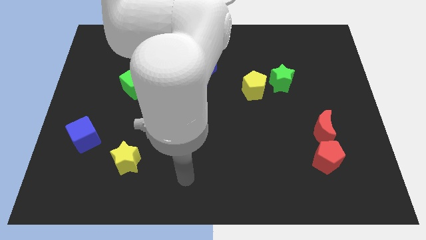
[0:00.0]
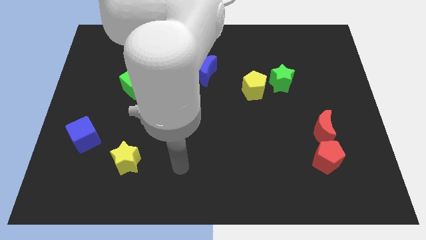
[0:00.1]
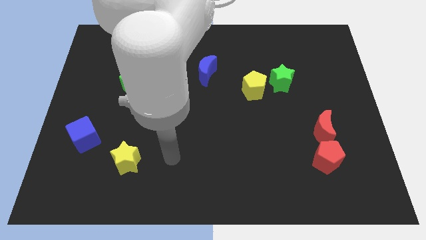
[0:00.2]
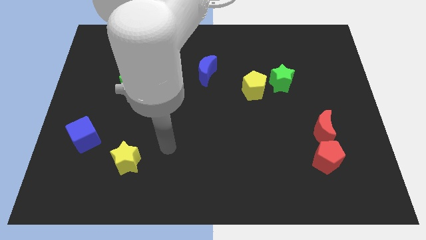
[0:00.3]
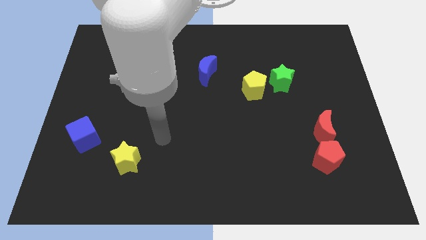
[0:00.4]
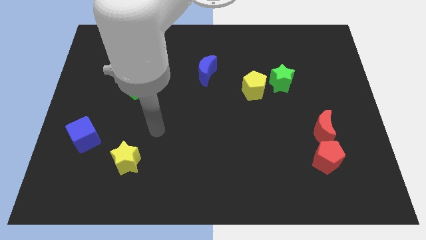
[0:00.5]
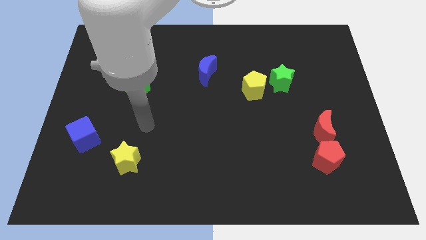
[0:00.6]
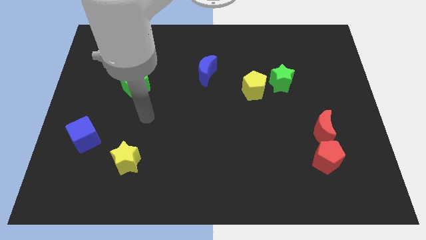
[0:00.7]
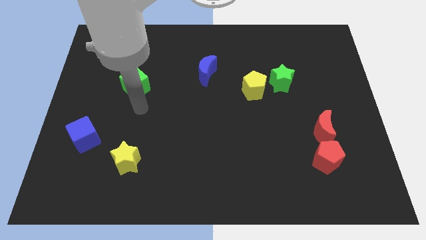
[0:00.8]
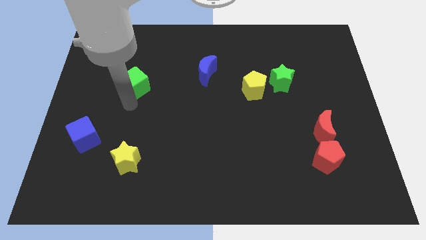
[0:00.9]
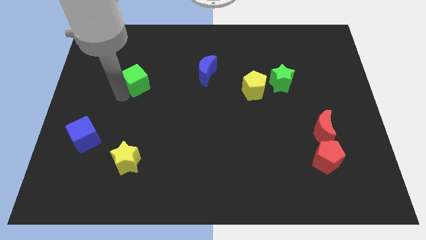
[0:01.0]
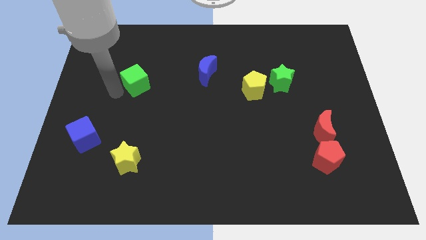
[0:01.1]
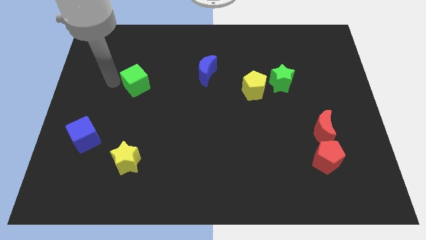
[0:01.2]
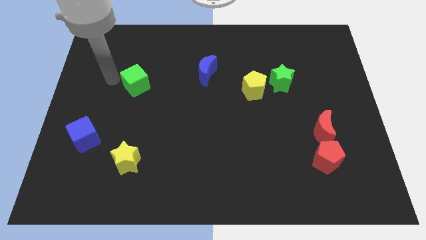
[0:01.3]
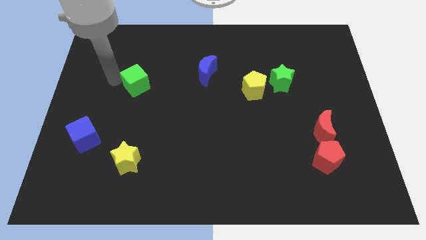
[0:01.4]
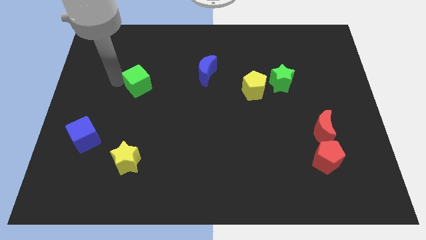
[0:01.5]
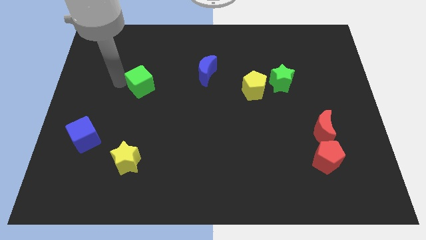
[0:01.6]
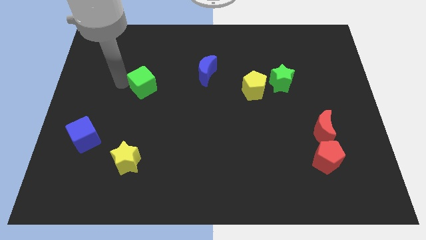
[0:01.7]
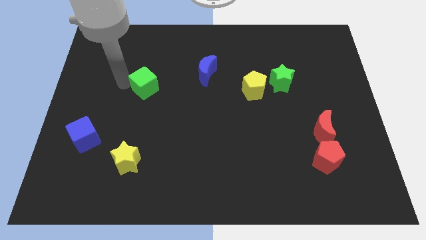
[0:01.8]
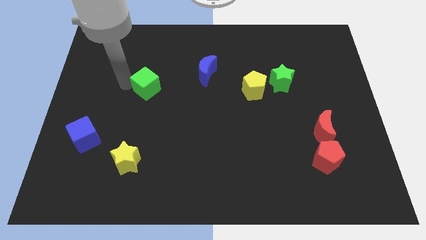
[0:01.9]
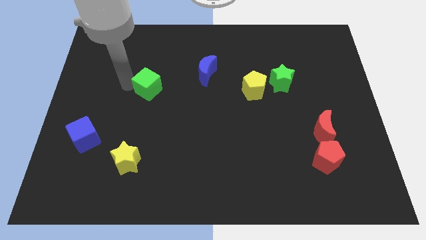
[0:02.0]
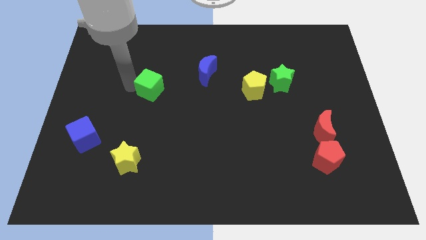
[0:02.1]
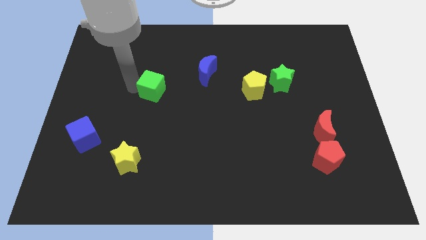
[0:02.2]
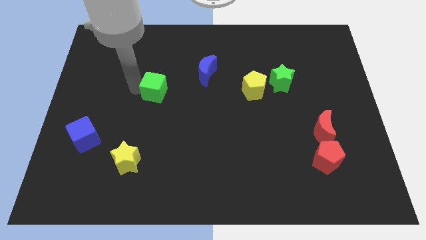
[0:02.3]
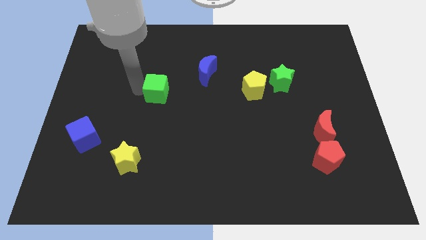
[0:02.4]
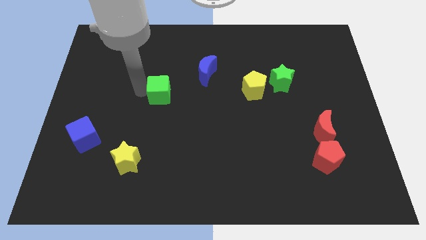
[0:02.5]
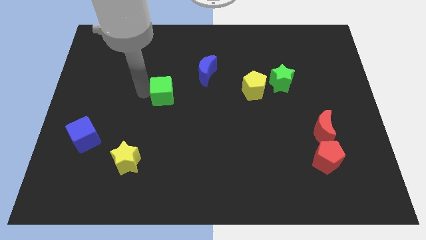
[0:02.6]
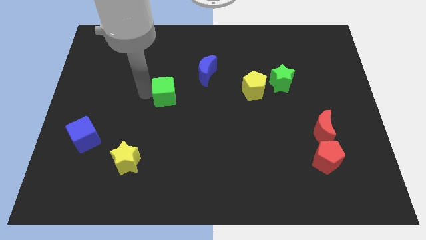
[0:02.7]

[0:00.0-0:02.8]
move the green cube to the right somewhat

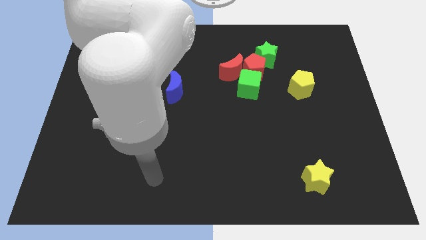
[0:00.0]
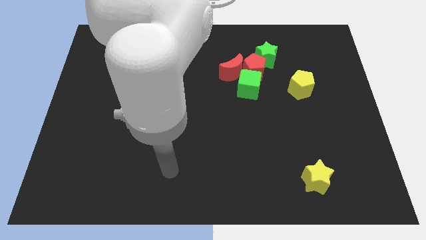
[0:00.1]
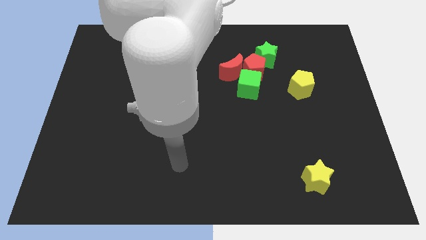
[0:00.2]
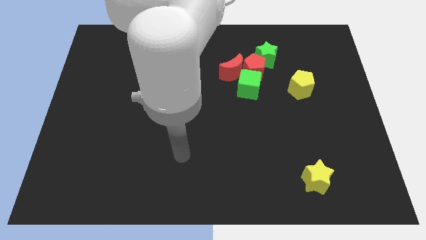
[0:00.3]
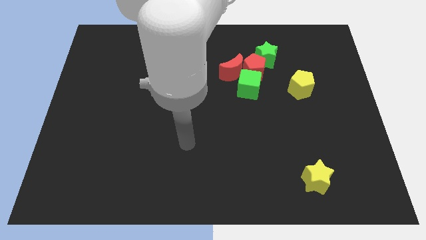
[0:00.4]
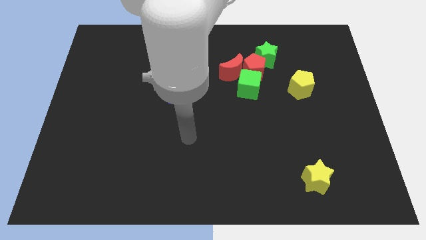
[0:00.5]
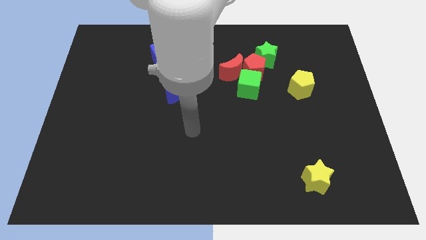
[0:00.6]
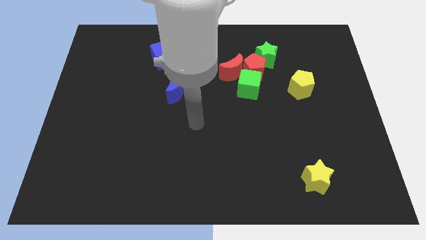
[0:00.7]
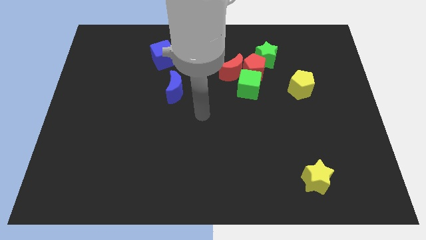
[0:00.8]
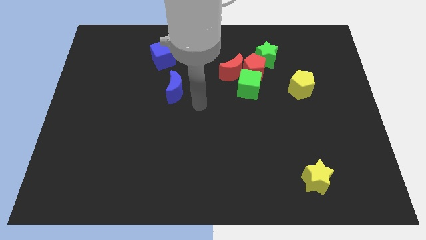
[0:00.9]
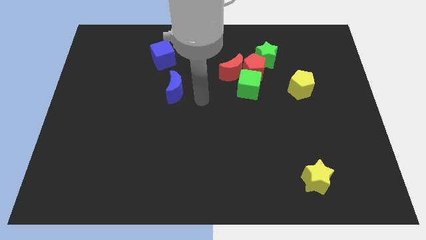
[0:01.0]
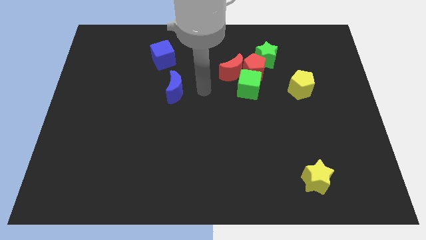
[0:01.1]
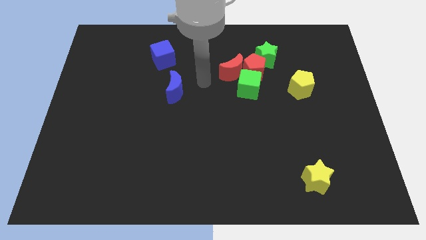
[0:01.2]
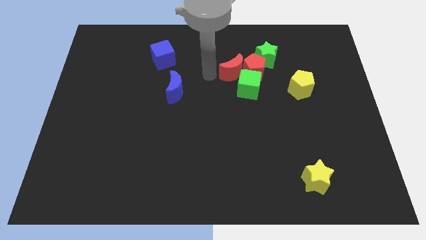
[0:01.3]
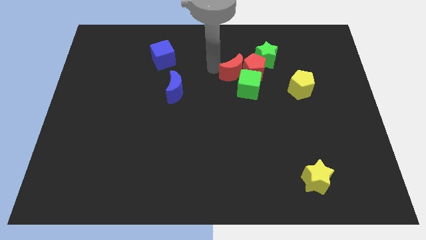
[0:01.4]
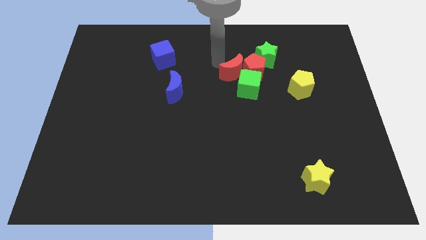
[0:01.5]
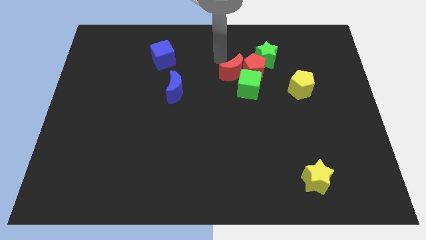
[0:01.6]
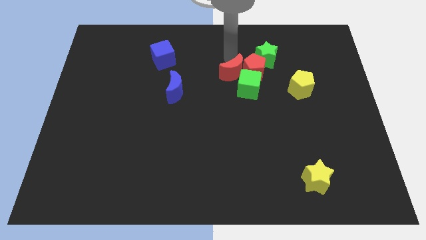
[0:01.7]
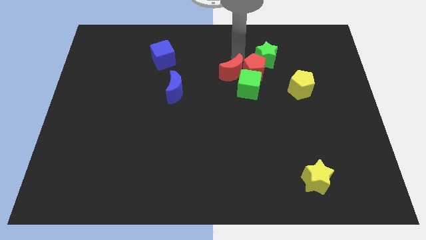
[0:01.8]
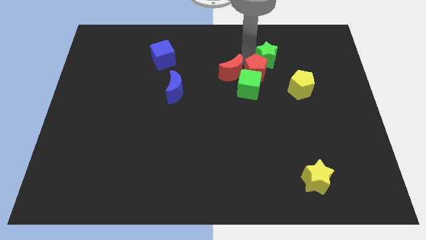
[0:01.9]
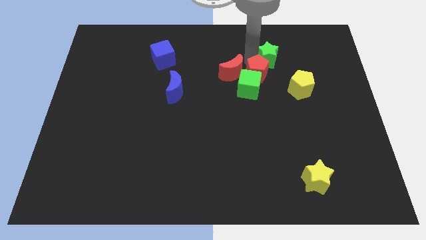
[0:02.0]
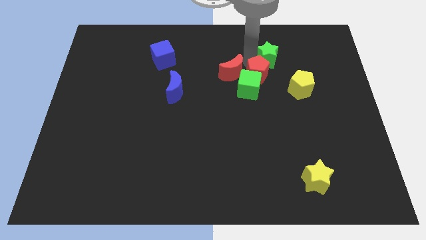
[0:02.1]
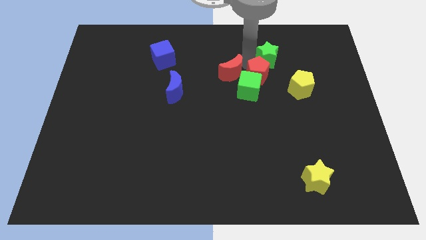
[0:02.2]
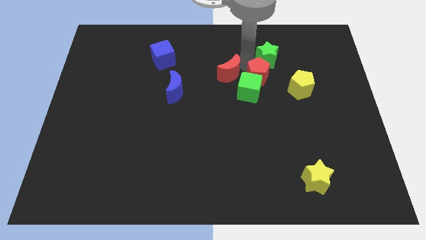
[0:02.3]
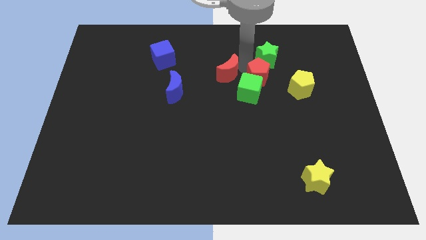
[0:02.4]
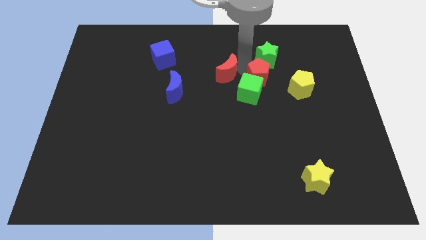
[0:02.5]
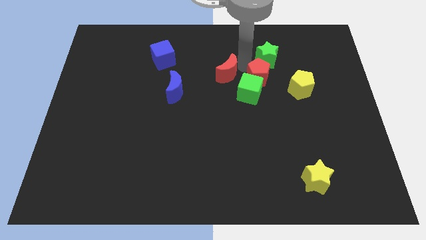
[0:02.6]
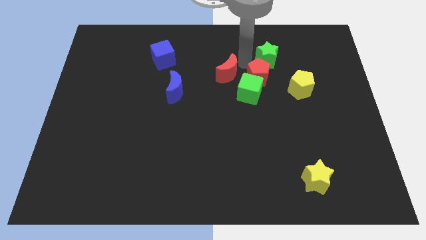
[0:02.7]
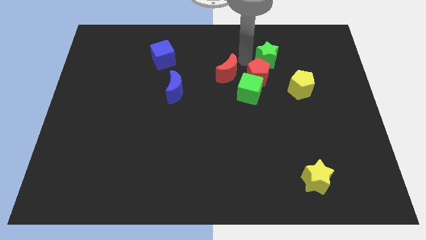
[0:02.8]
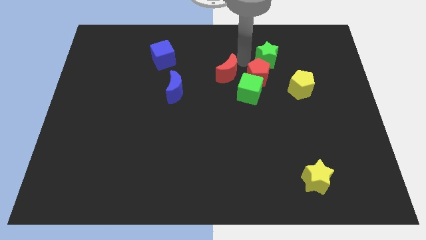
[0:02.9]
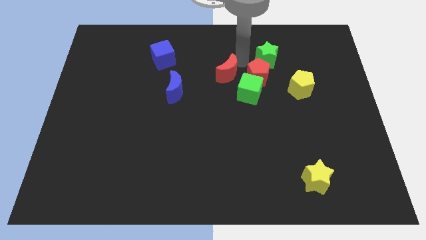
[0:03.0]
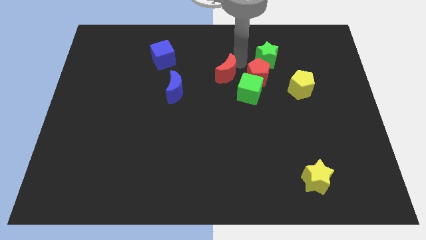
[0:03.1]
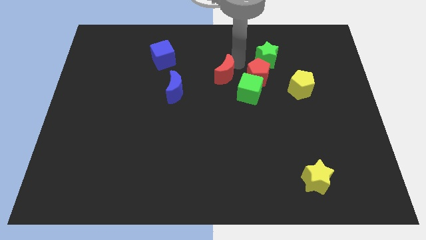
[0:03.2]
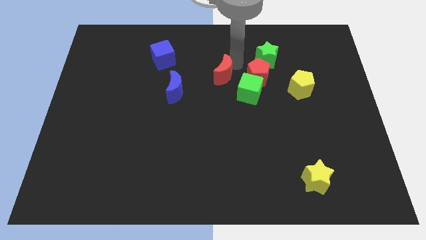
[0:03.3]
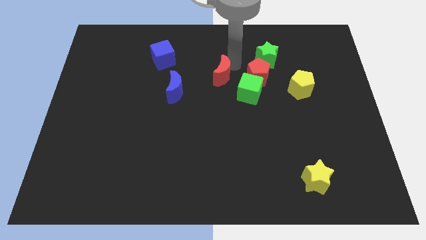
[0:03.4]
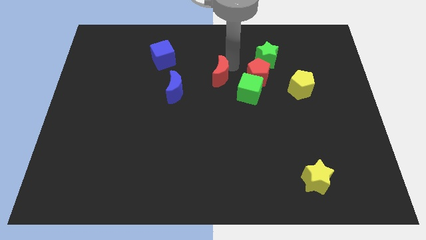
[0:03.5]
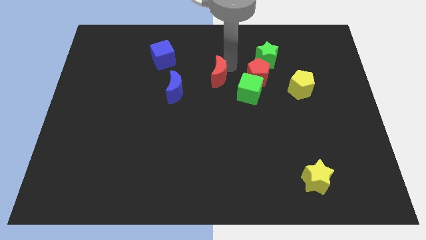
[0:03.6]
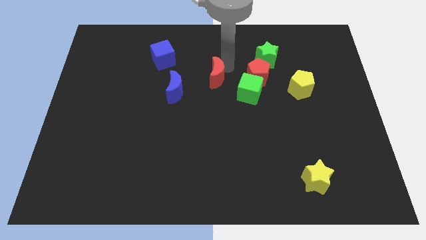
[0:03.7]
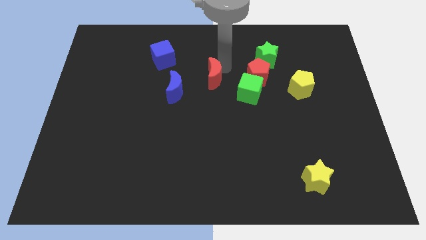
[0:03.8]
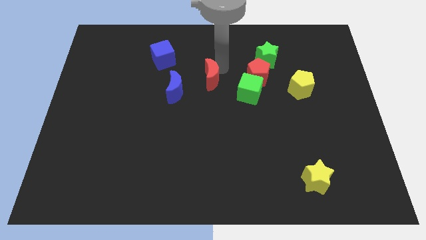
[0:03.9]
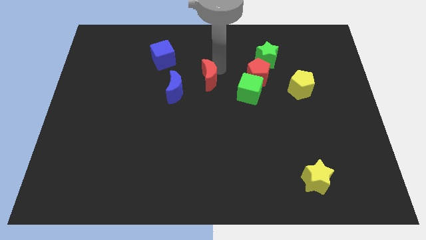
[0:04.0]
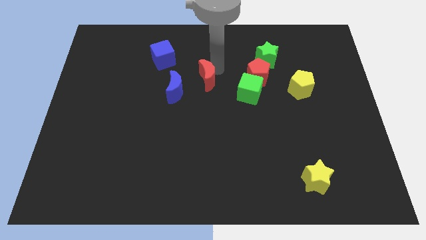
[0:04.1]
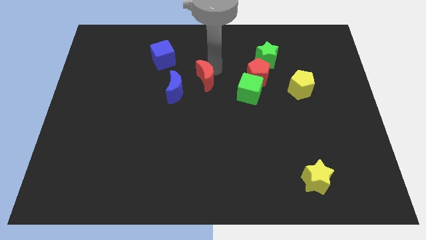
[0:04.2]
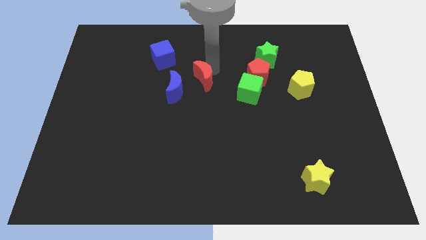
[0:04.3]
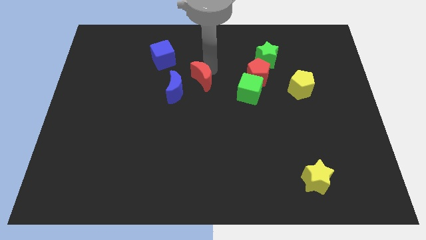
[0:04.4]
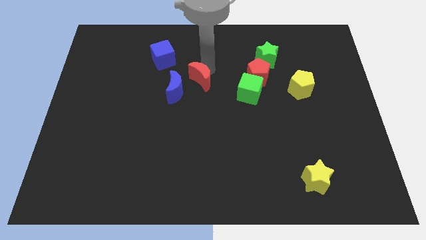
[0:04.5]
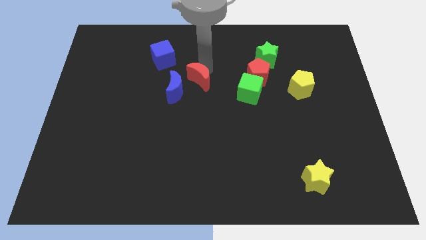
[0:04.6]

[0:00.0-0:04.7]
slide the red moon down and then left somewhat

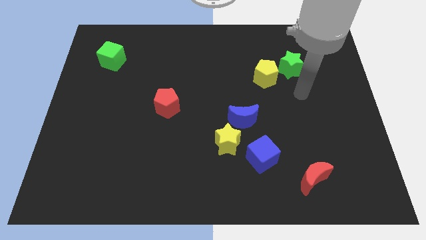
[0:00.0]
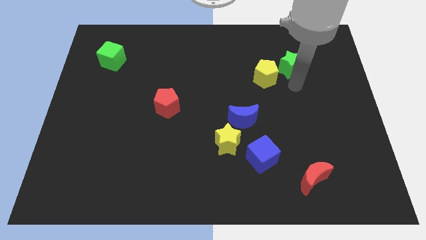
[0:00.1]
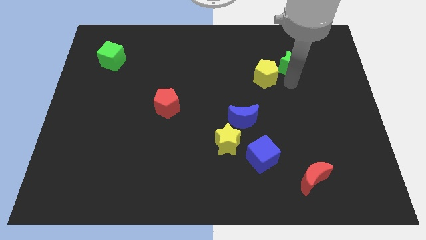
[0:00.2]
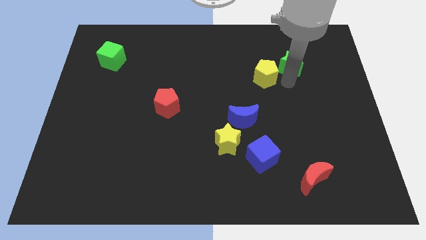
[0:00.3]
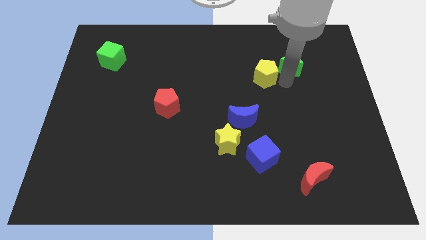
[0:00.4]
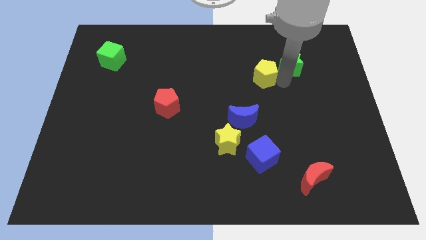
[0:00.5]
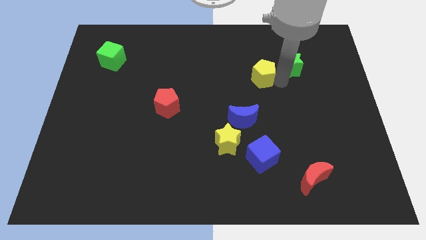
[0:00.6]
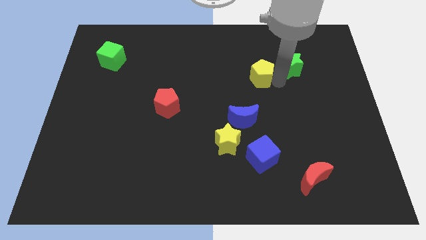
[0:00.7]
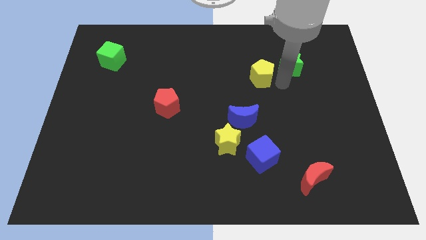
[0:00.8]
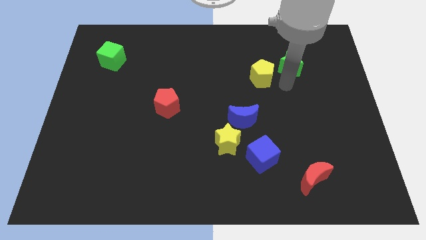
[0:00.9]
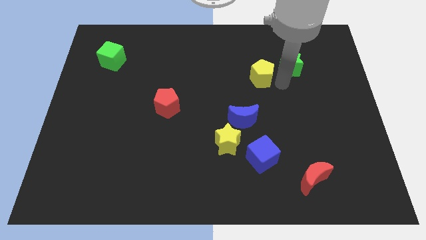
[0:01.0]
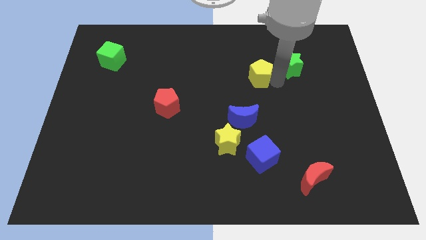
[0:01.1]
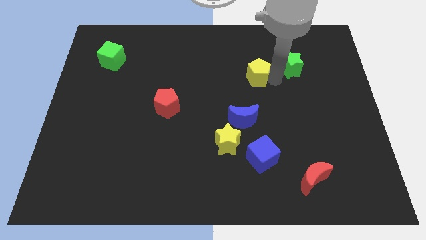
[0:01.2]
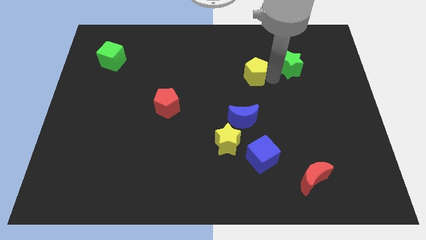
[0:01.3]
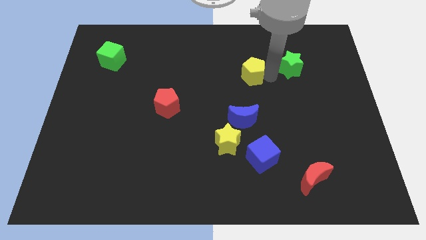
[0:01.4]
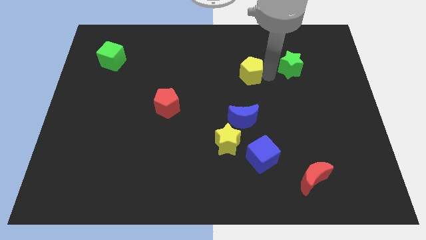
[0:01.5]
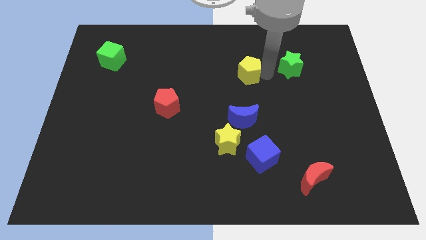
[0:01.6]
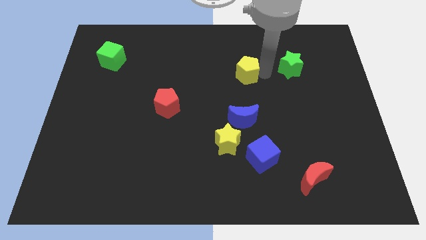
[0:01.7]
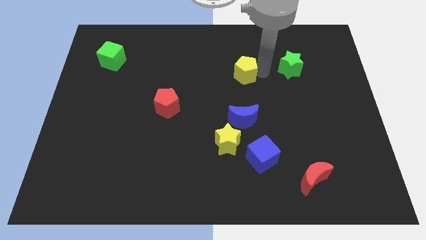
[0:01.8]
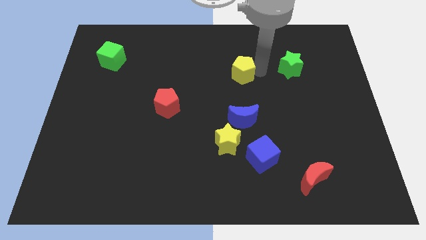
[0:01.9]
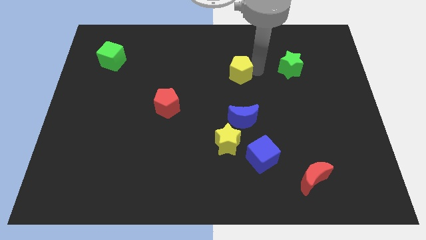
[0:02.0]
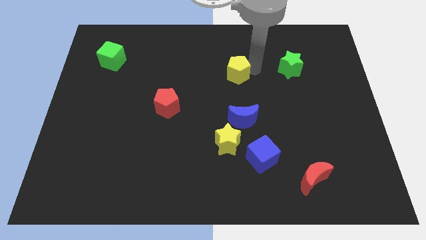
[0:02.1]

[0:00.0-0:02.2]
push the yellow pentagon slightly left
